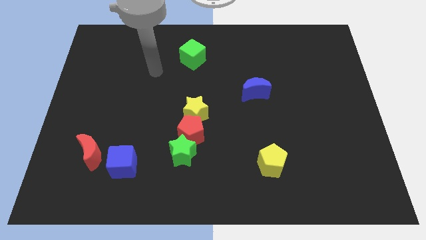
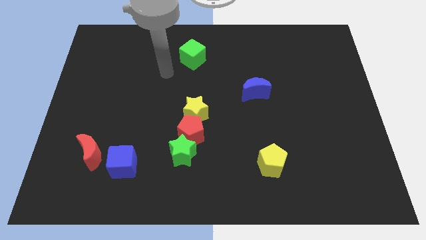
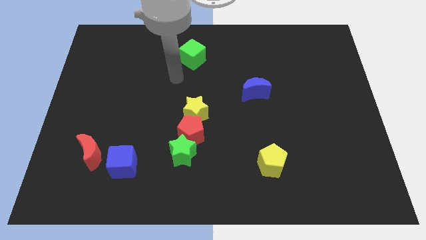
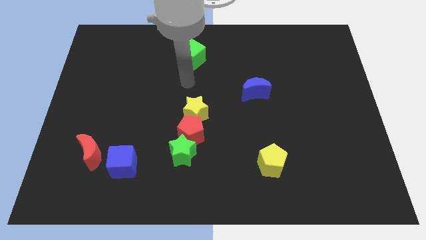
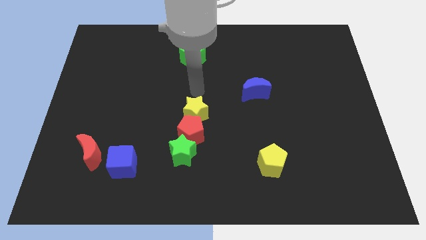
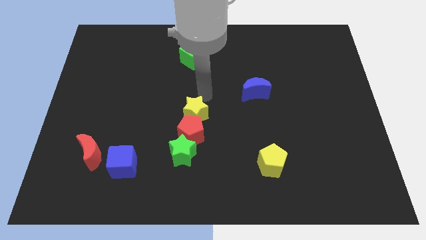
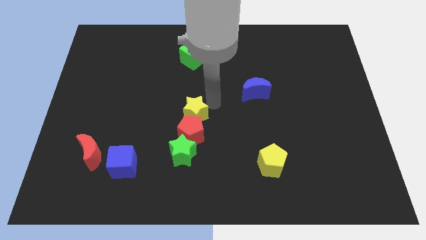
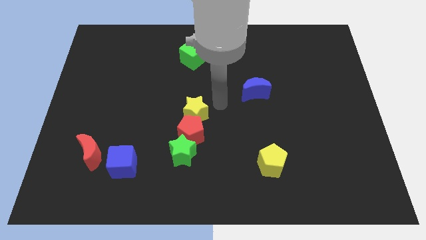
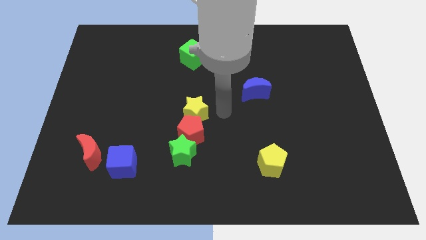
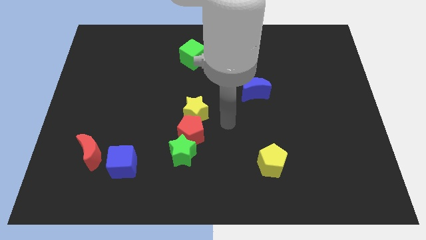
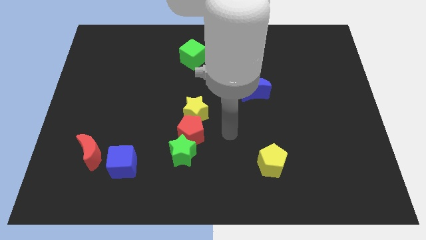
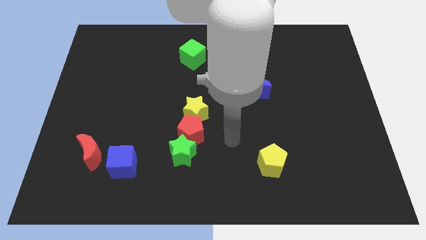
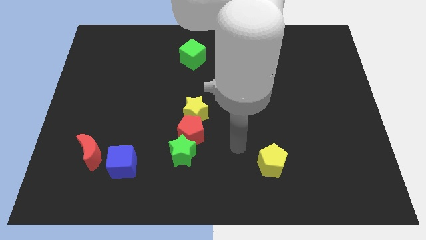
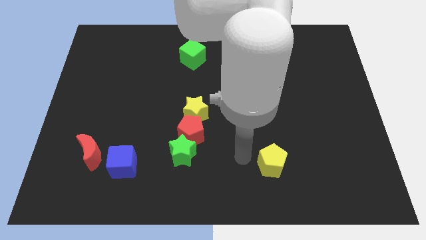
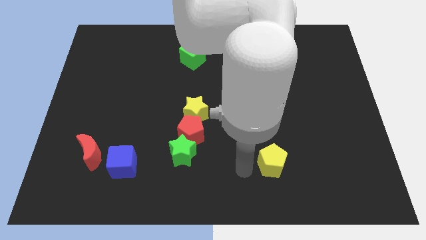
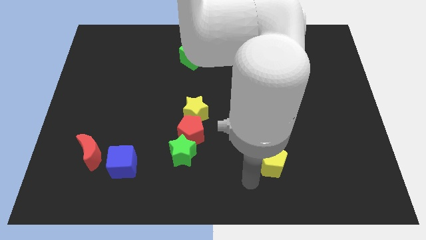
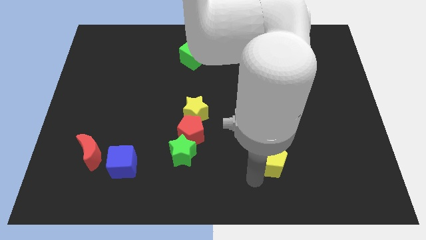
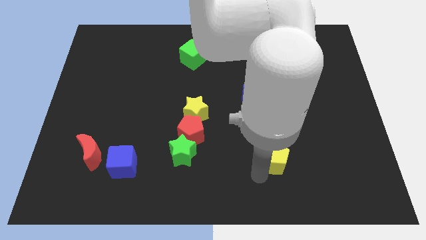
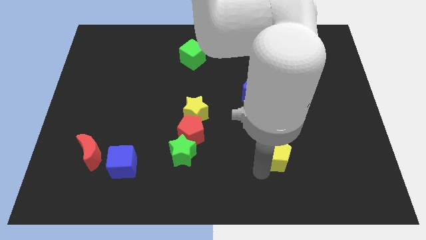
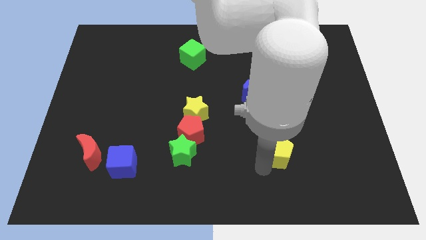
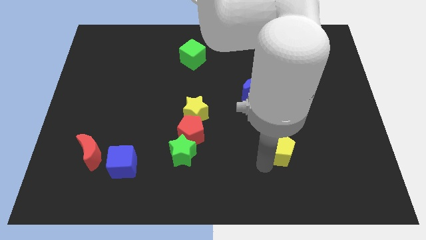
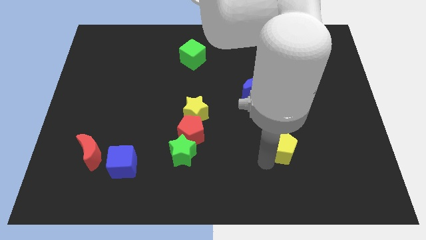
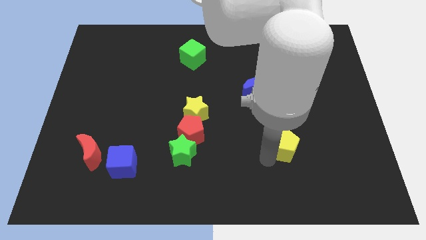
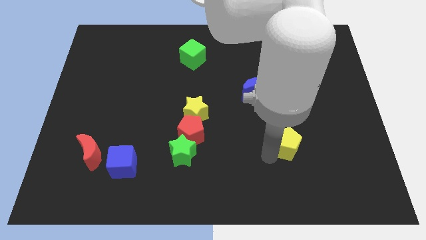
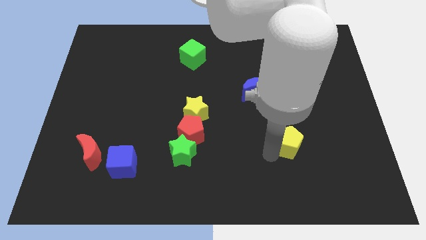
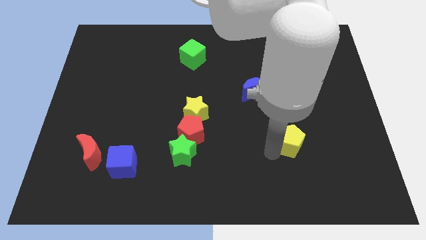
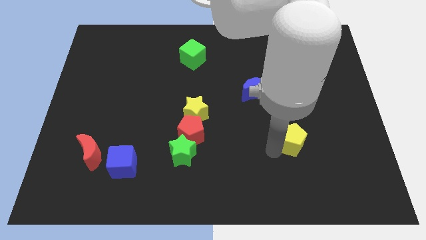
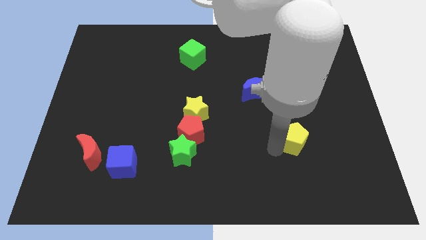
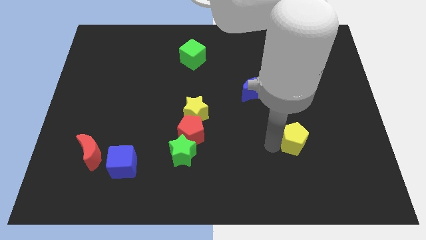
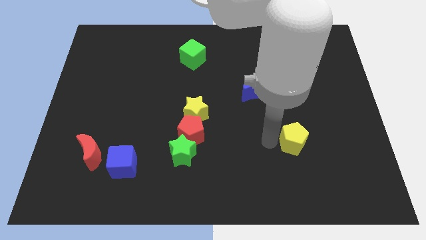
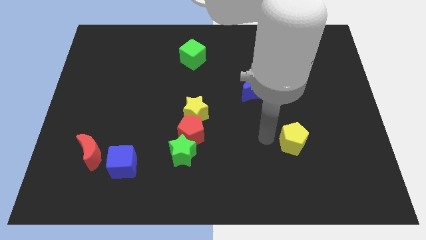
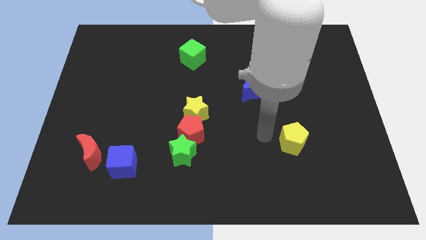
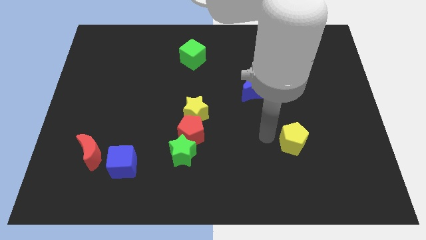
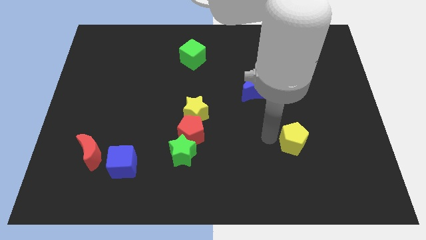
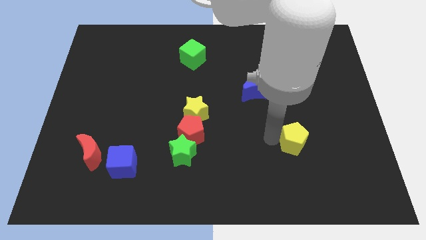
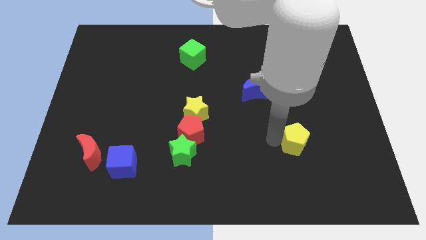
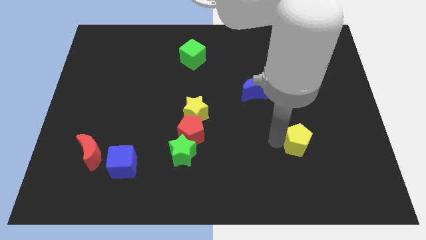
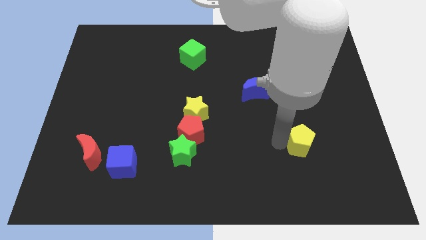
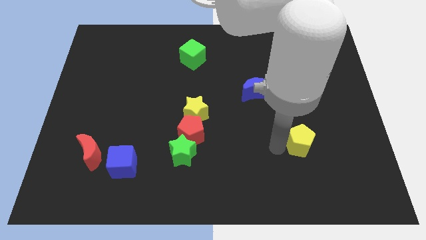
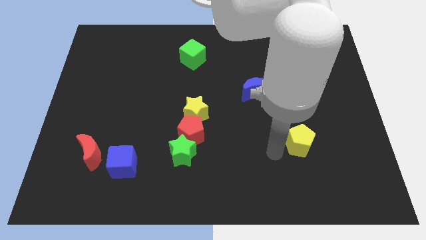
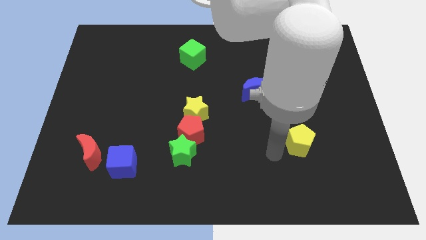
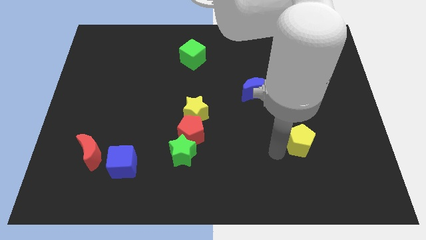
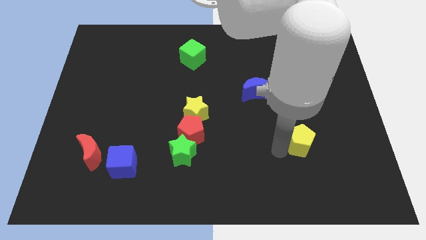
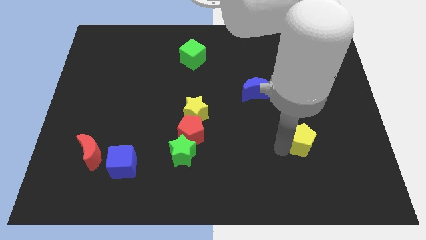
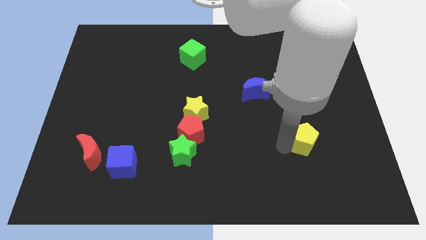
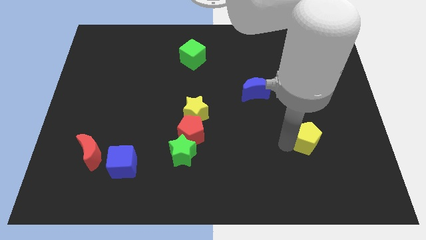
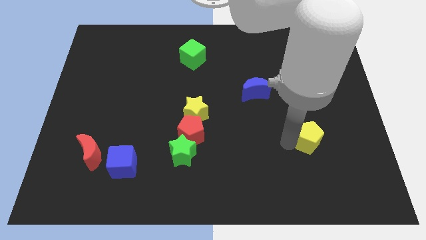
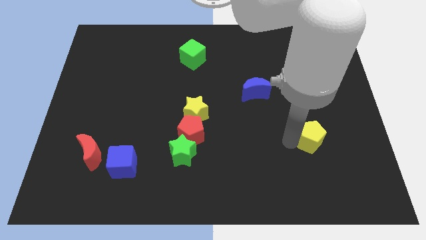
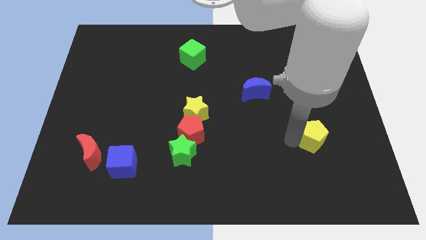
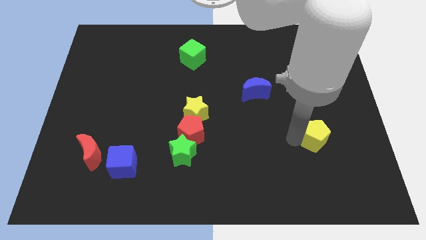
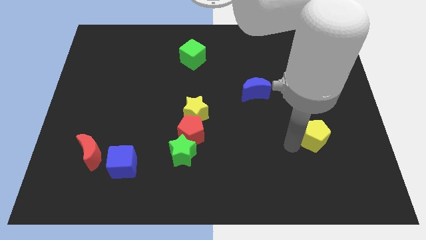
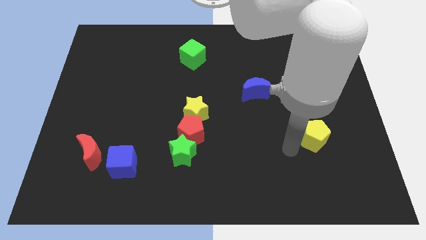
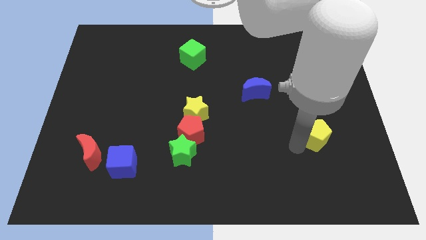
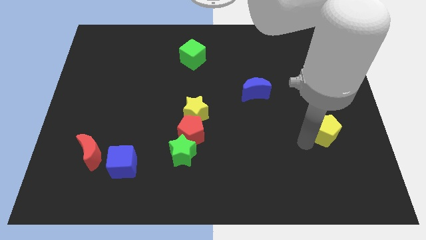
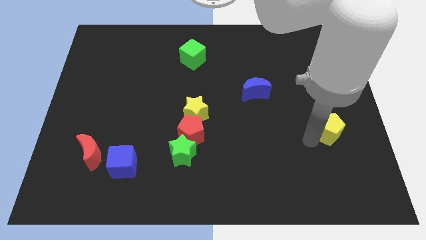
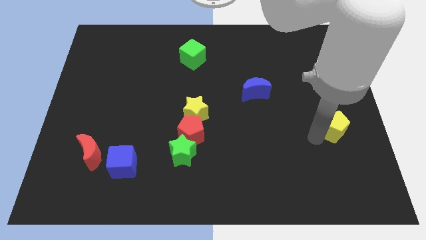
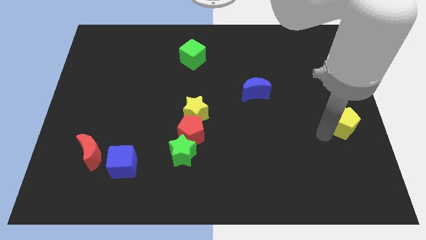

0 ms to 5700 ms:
push the yellow pentagon to the right side of the board

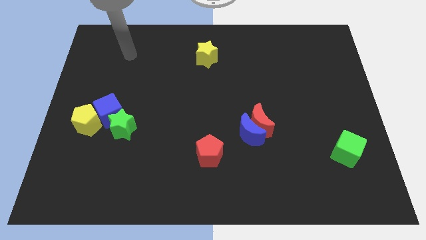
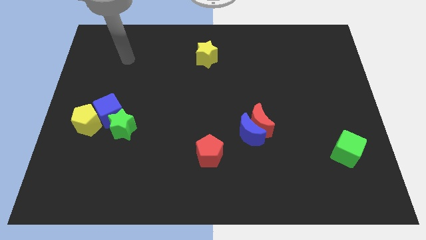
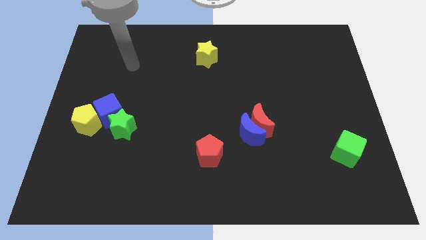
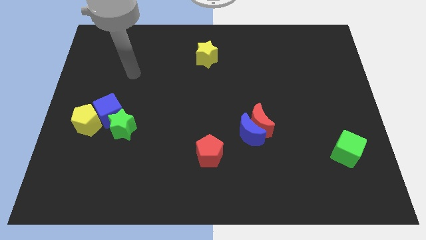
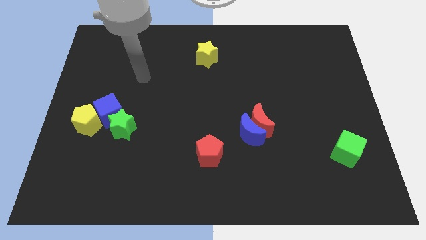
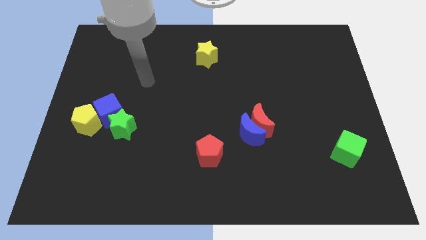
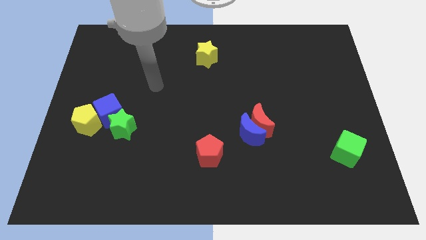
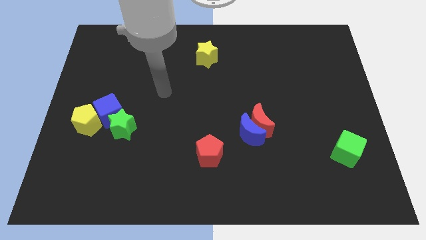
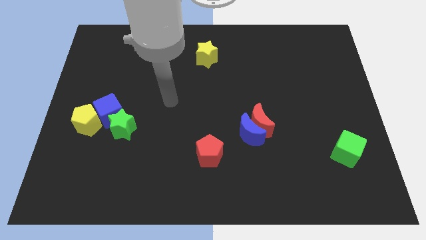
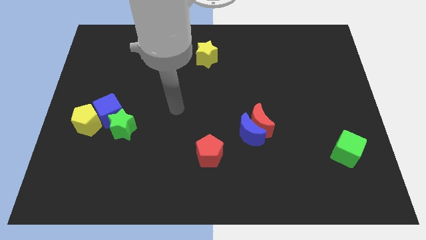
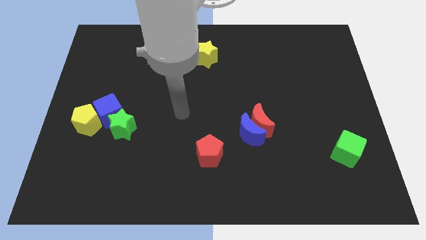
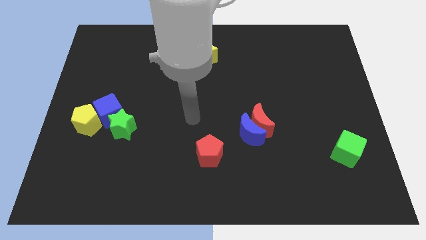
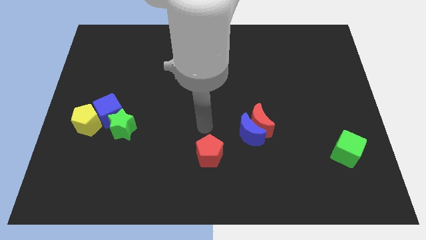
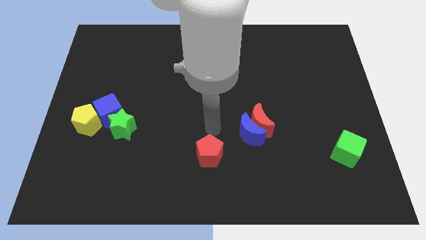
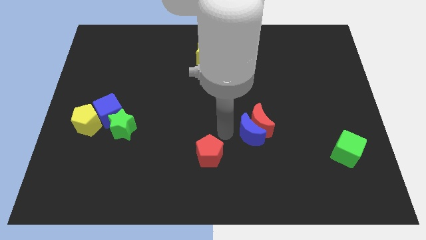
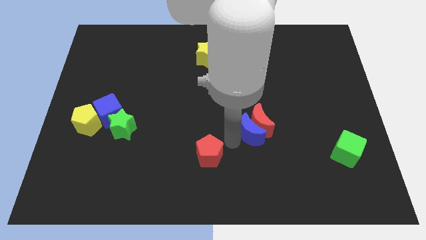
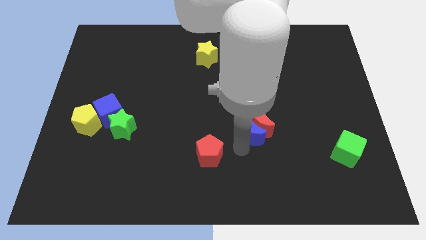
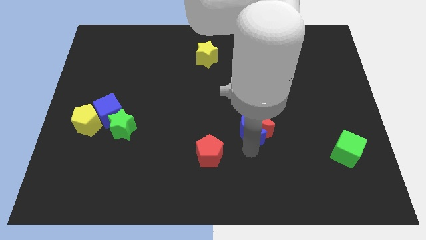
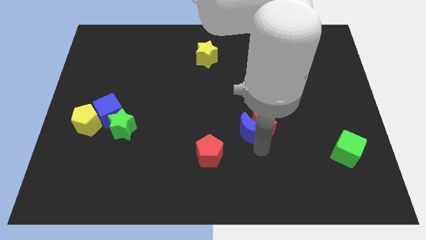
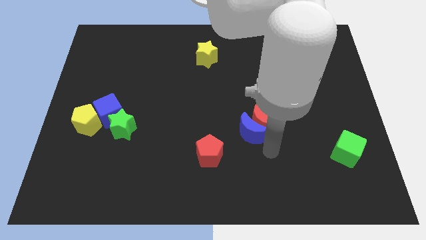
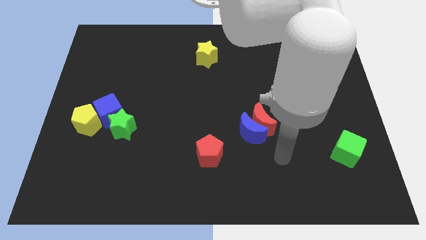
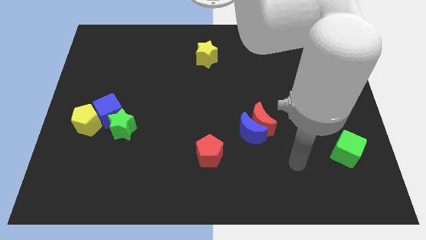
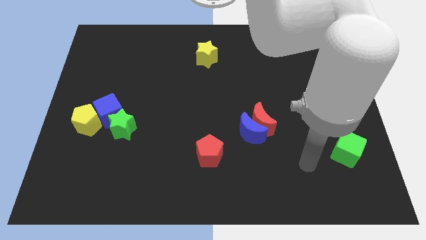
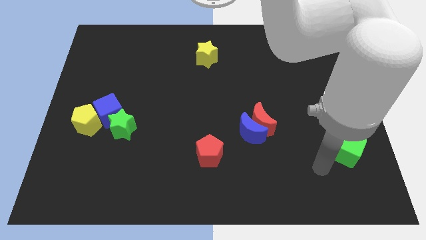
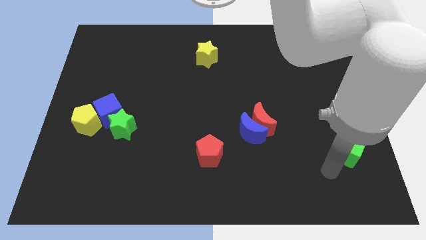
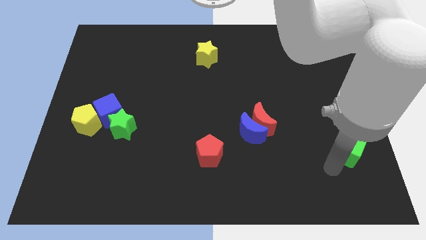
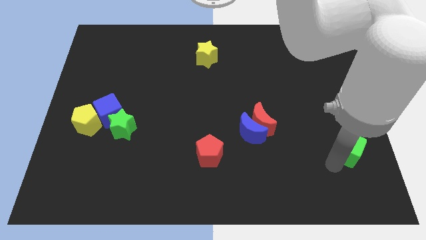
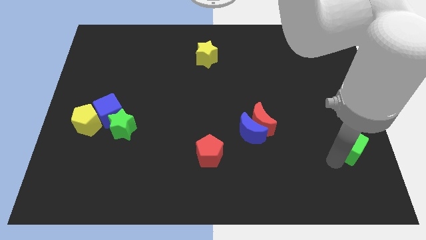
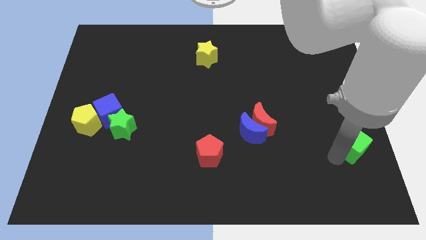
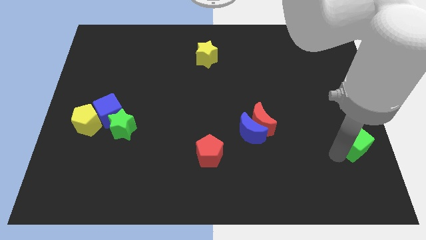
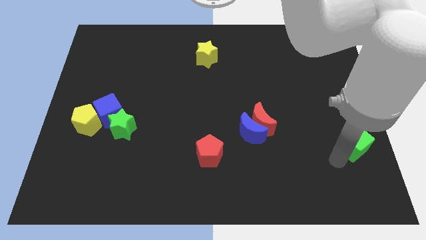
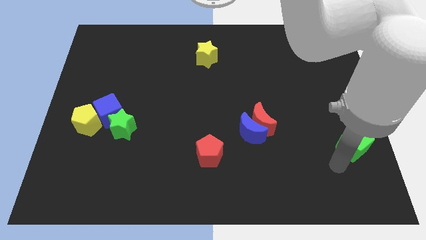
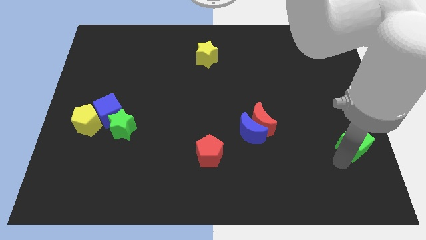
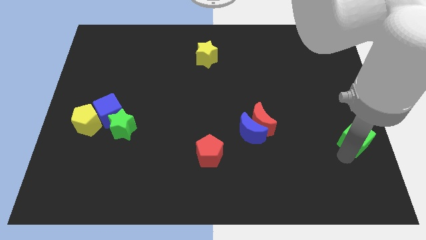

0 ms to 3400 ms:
move the green cube to the right side
